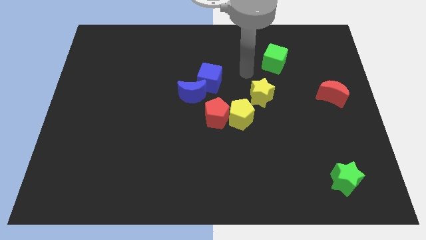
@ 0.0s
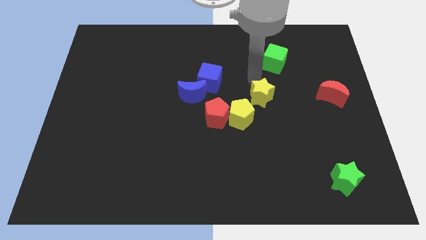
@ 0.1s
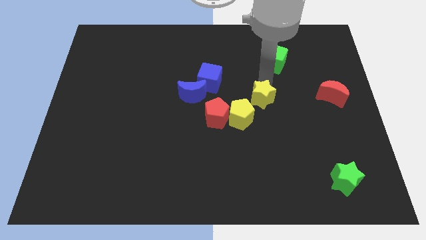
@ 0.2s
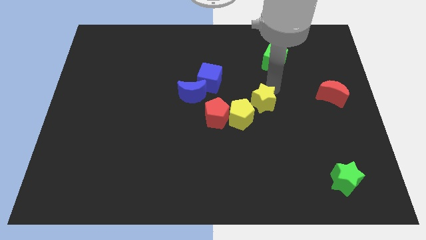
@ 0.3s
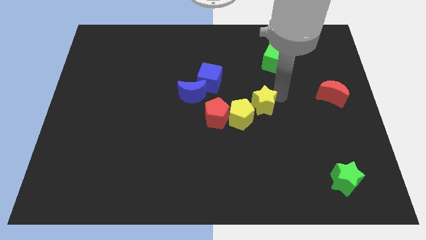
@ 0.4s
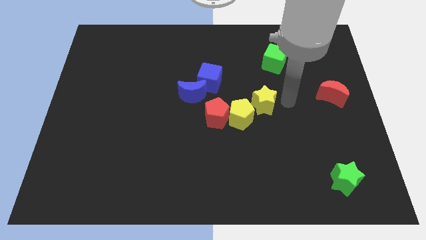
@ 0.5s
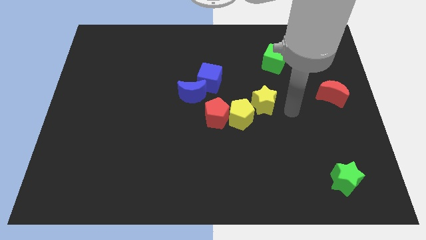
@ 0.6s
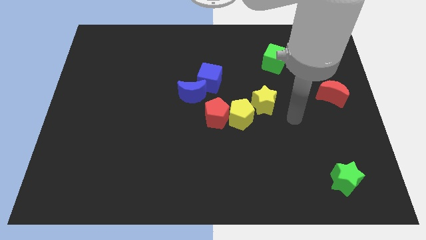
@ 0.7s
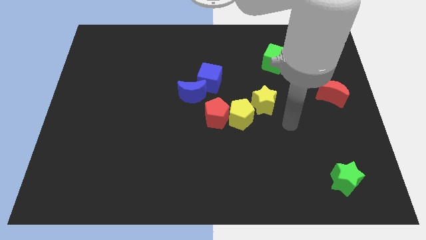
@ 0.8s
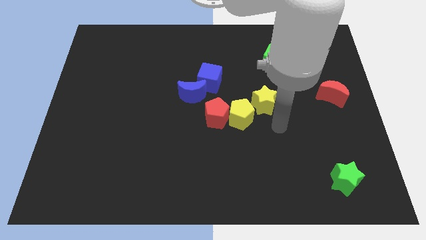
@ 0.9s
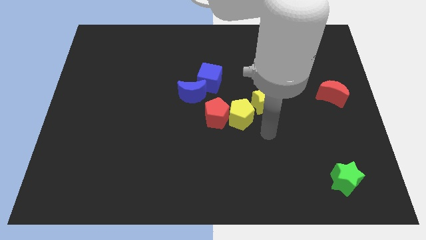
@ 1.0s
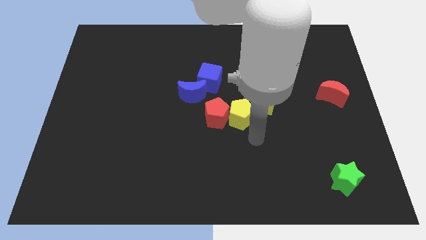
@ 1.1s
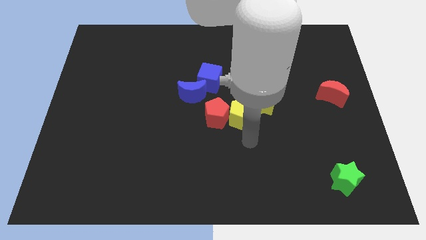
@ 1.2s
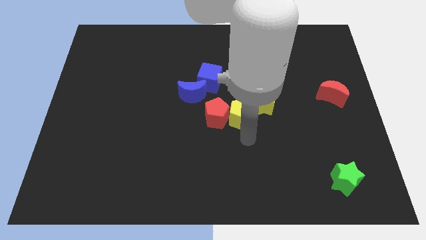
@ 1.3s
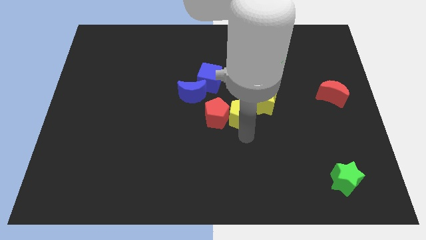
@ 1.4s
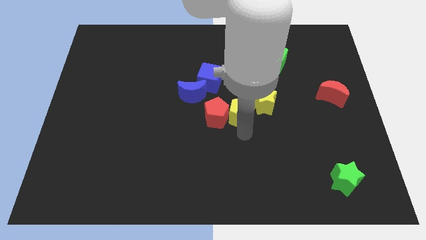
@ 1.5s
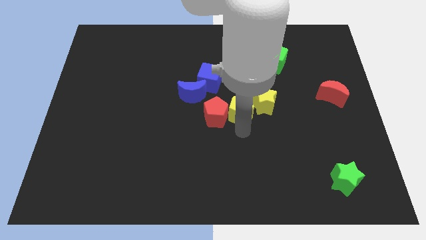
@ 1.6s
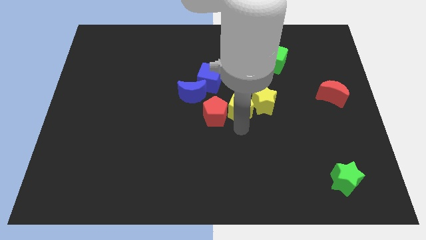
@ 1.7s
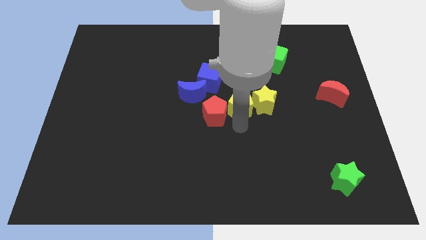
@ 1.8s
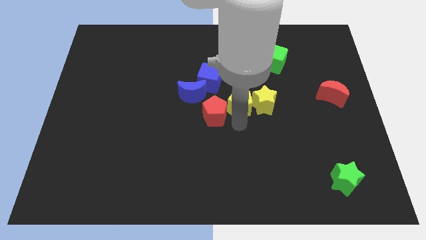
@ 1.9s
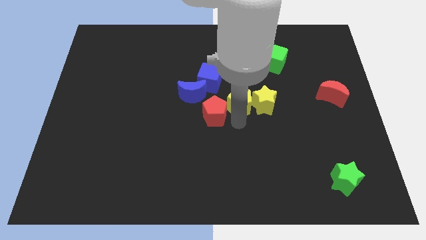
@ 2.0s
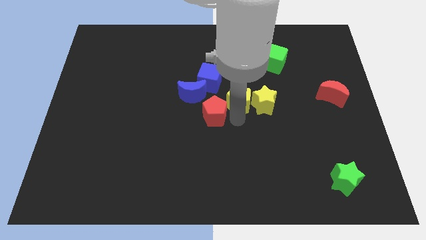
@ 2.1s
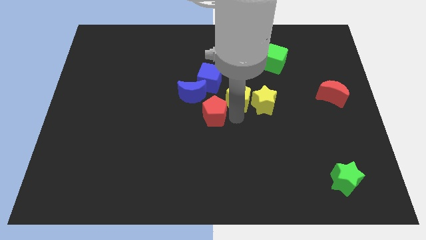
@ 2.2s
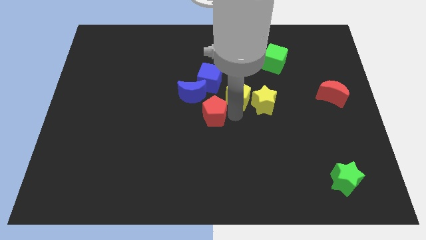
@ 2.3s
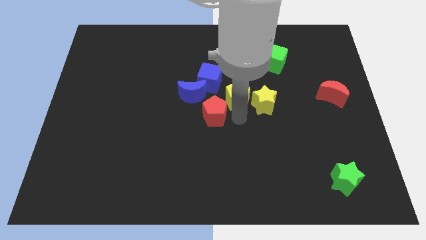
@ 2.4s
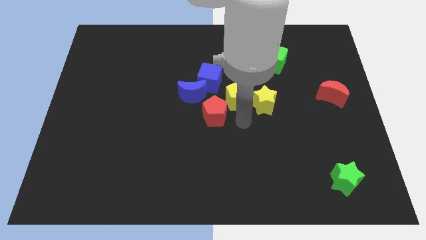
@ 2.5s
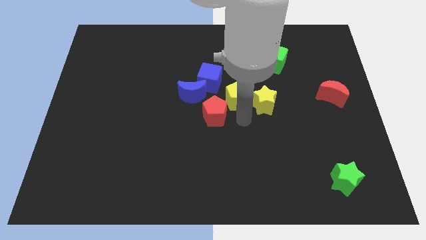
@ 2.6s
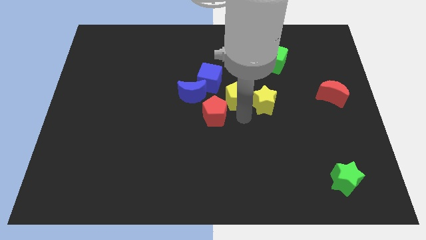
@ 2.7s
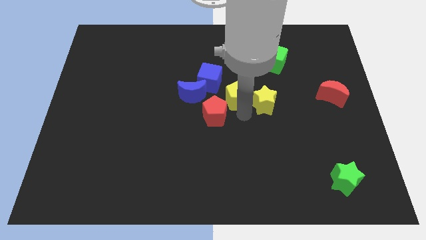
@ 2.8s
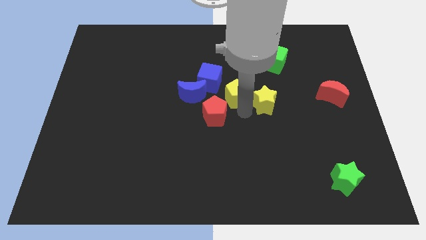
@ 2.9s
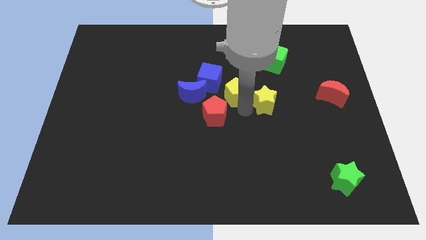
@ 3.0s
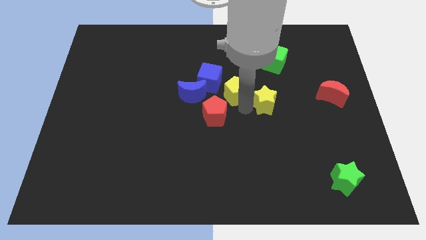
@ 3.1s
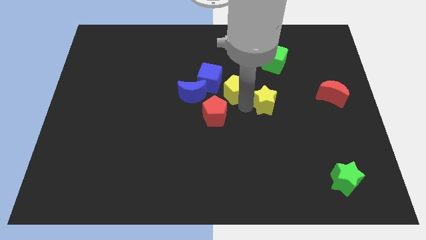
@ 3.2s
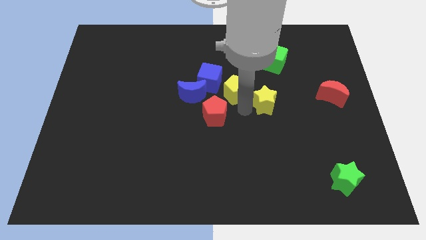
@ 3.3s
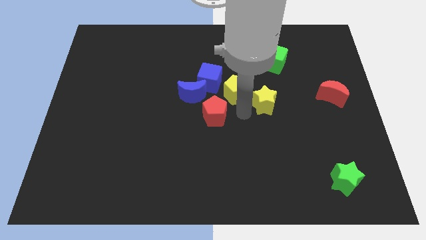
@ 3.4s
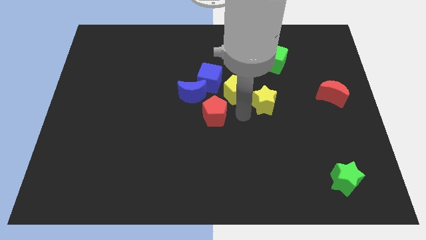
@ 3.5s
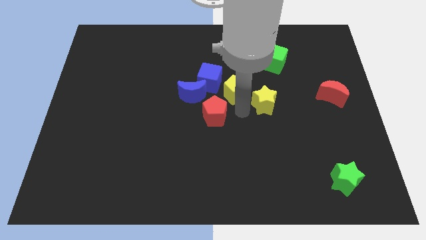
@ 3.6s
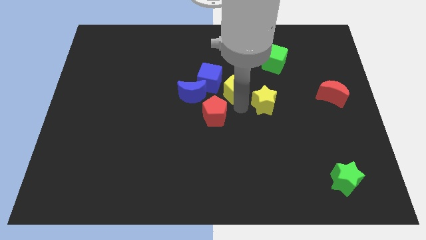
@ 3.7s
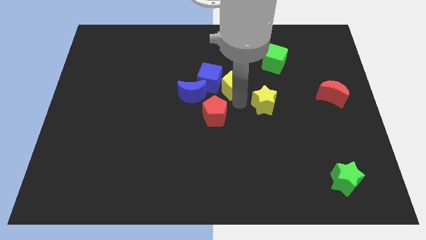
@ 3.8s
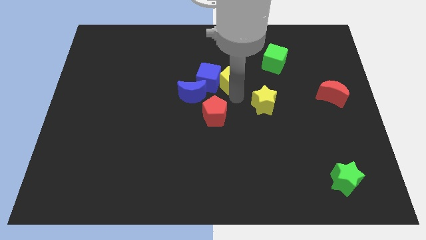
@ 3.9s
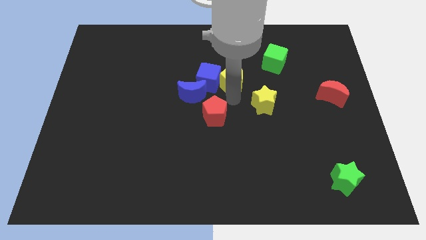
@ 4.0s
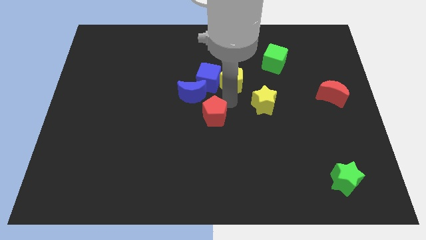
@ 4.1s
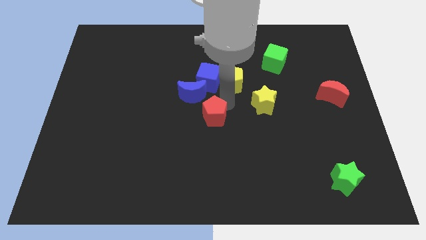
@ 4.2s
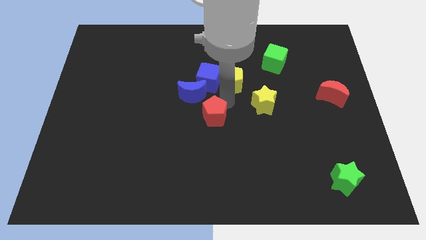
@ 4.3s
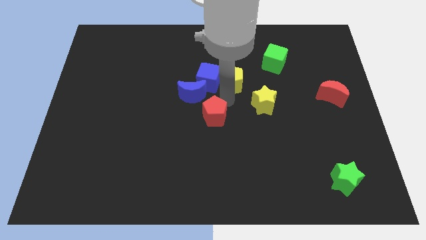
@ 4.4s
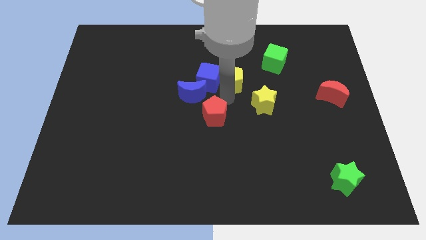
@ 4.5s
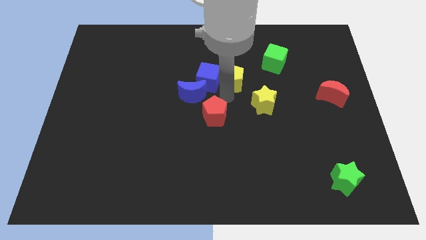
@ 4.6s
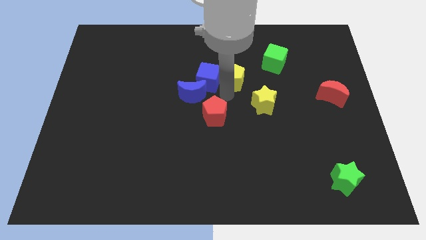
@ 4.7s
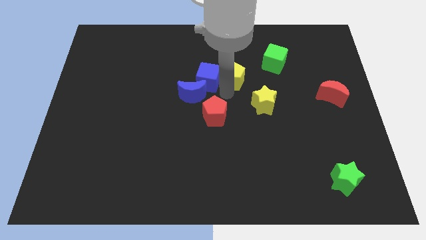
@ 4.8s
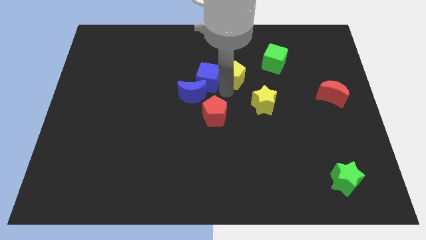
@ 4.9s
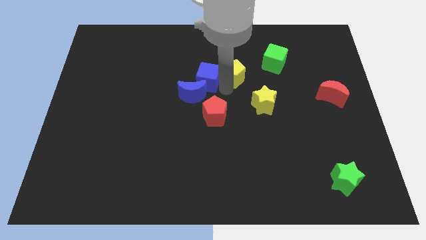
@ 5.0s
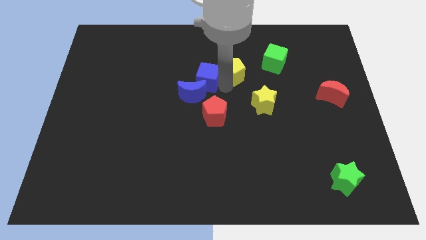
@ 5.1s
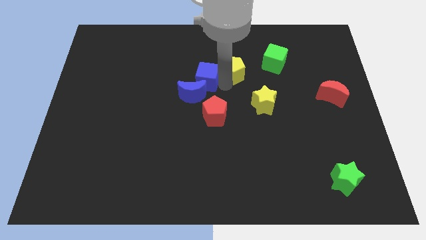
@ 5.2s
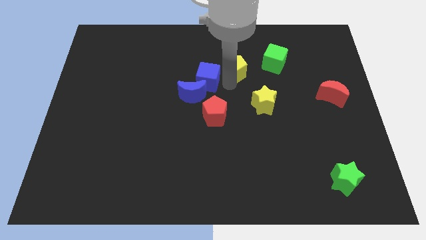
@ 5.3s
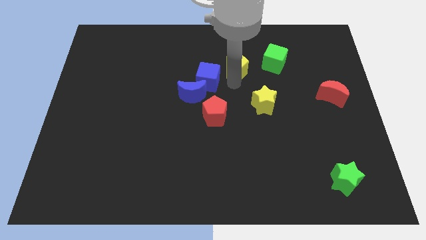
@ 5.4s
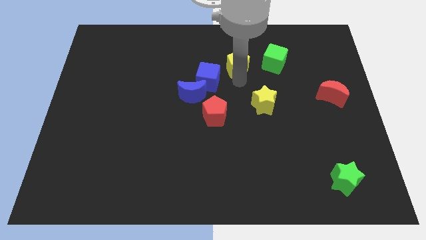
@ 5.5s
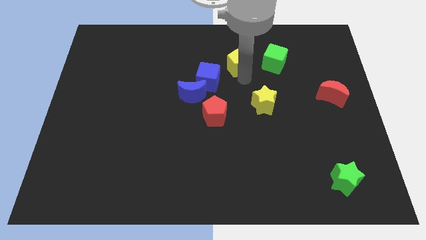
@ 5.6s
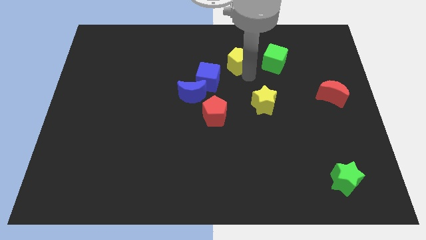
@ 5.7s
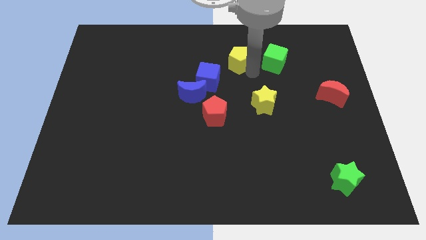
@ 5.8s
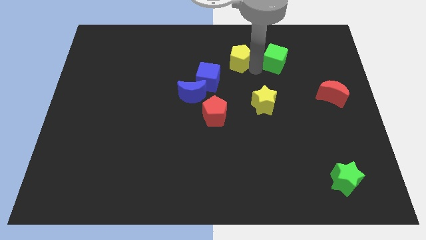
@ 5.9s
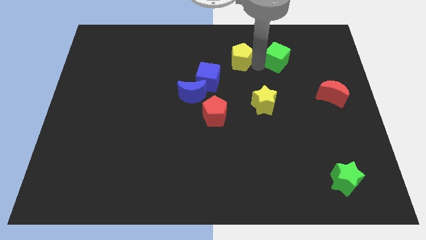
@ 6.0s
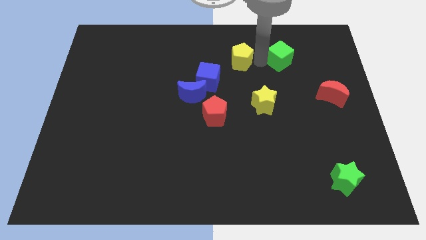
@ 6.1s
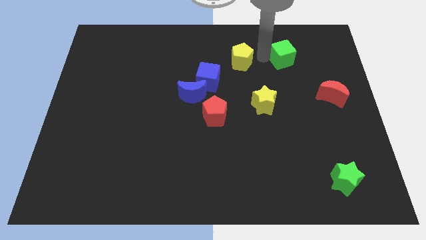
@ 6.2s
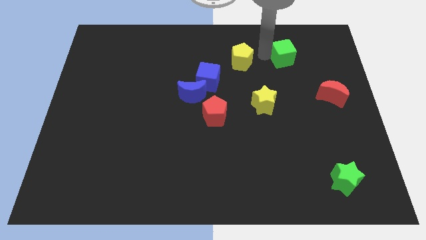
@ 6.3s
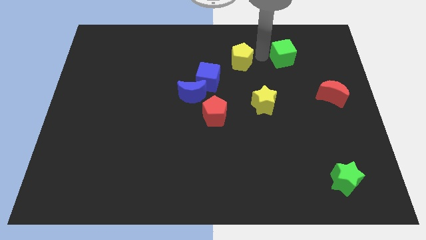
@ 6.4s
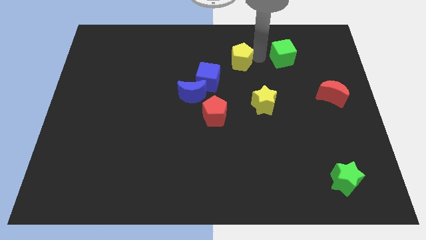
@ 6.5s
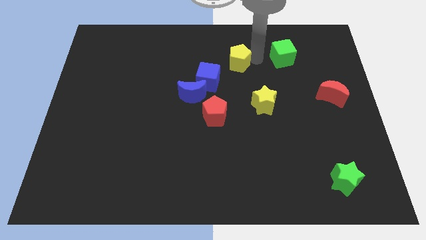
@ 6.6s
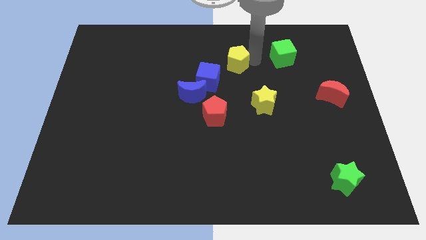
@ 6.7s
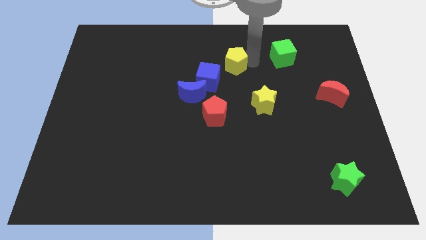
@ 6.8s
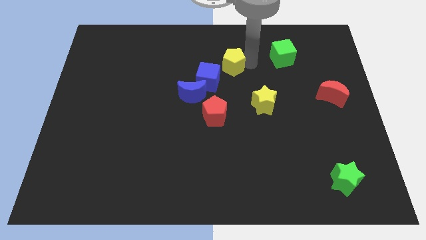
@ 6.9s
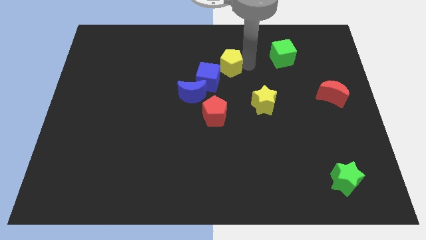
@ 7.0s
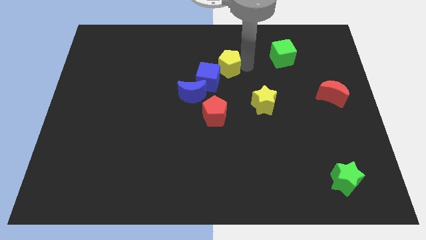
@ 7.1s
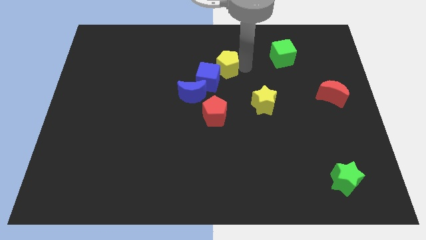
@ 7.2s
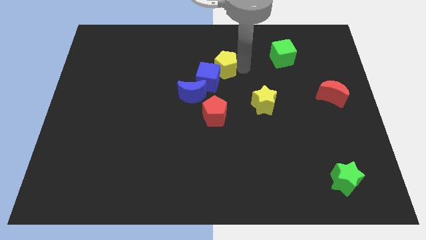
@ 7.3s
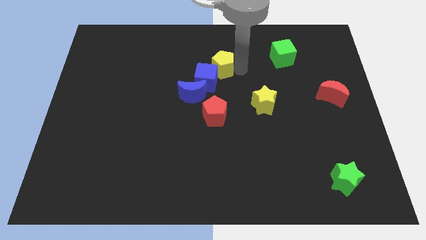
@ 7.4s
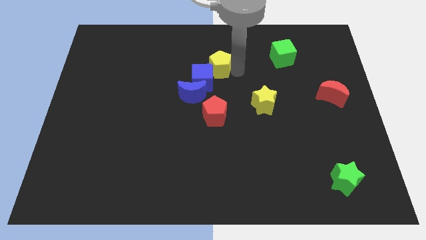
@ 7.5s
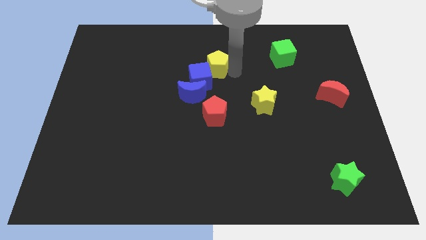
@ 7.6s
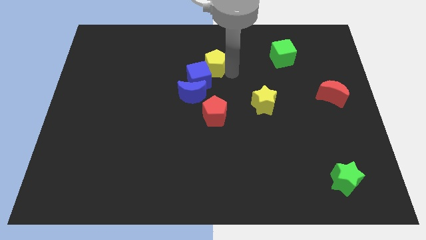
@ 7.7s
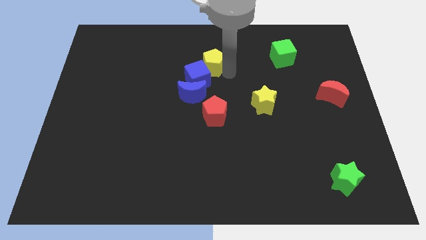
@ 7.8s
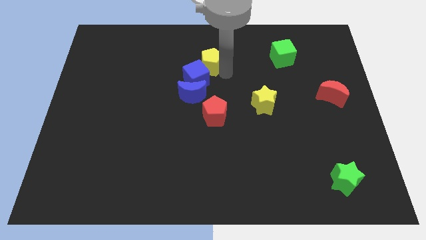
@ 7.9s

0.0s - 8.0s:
move the yellow pentagon to the top side of the blue moon

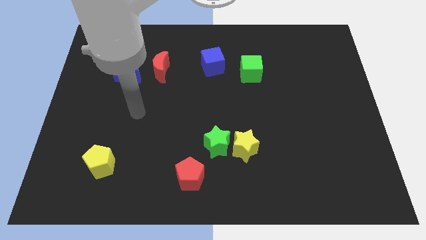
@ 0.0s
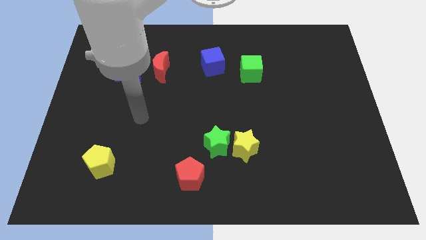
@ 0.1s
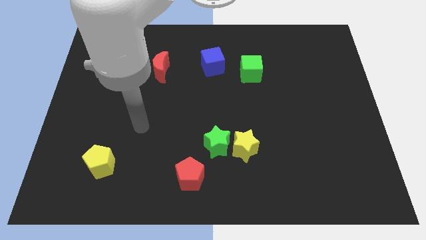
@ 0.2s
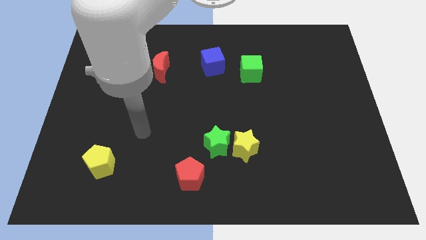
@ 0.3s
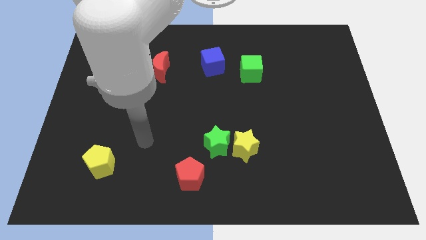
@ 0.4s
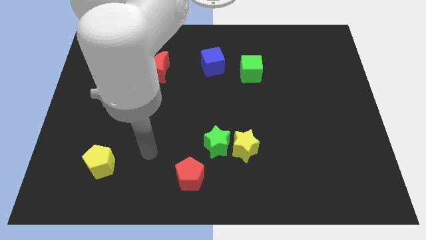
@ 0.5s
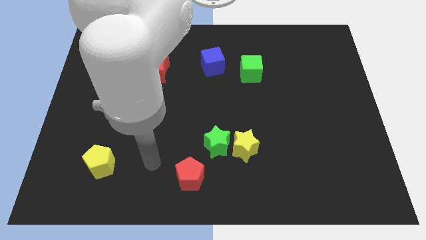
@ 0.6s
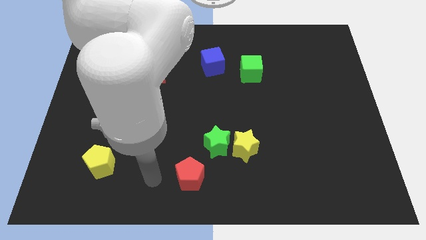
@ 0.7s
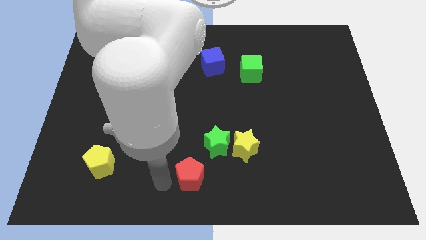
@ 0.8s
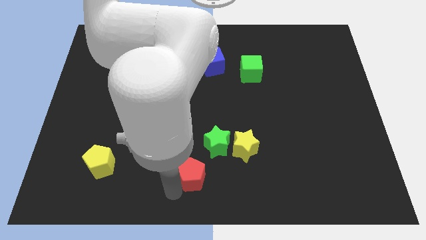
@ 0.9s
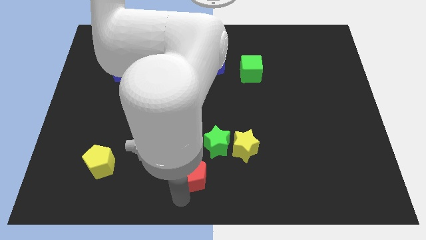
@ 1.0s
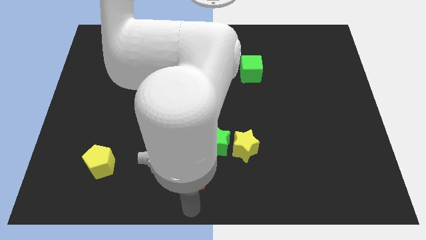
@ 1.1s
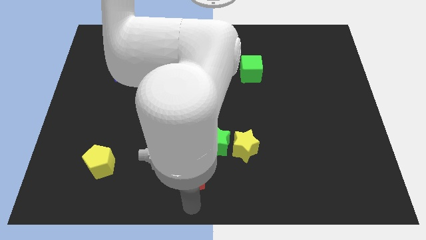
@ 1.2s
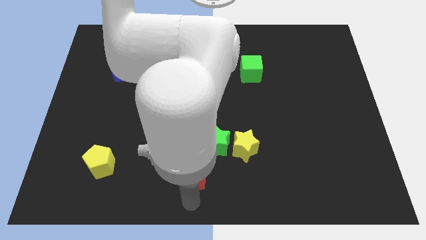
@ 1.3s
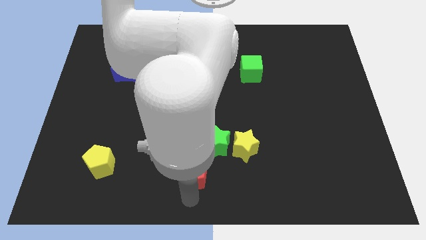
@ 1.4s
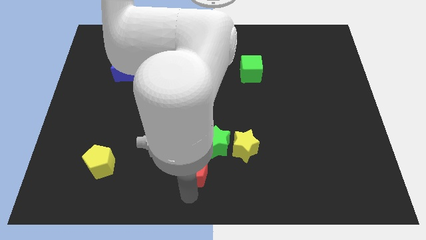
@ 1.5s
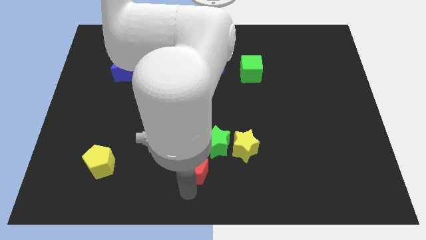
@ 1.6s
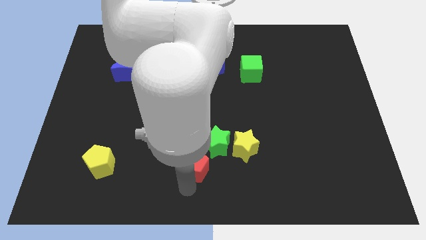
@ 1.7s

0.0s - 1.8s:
put the red pentagon to the left of the yellow star
